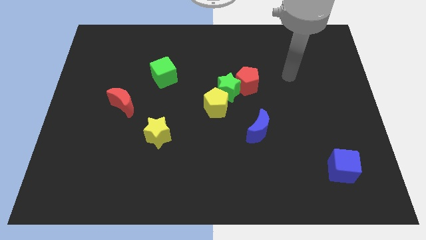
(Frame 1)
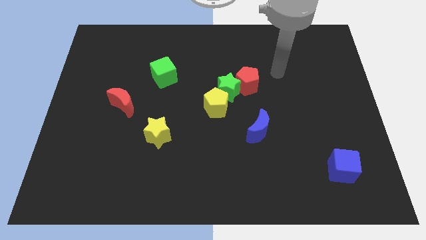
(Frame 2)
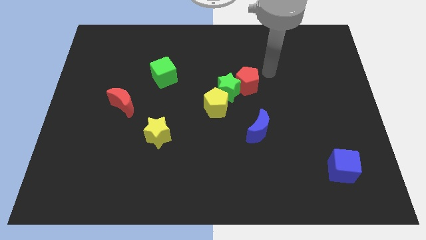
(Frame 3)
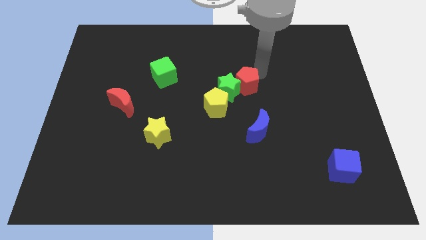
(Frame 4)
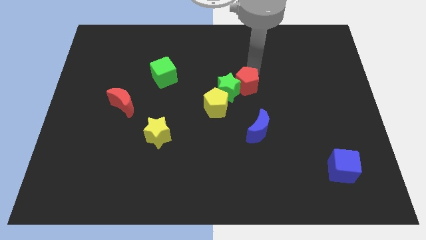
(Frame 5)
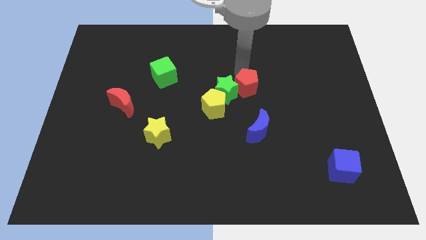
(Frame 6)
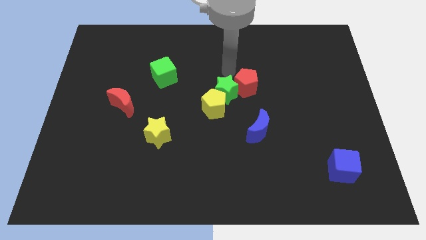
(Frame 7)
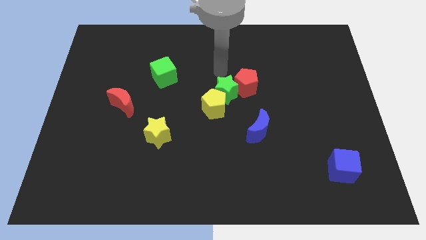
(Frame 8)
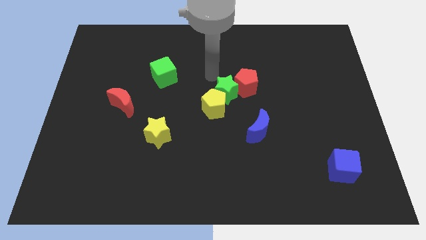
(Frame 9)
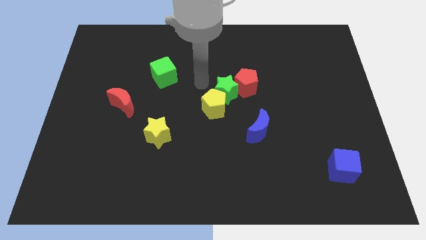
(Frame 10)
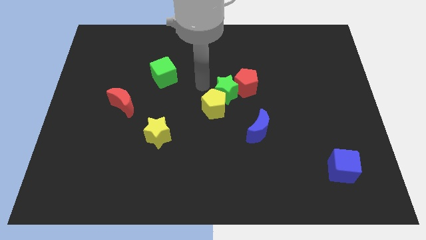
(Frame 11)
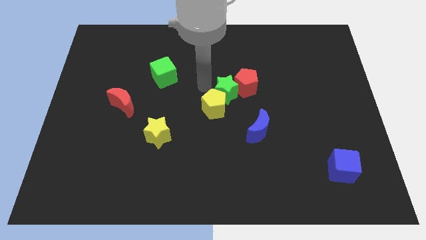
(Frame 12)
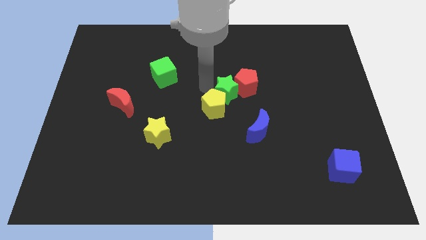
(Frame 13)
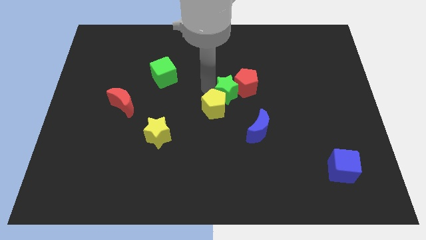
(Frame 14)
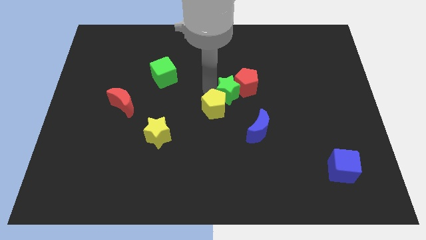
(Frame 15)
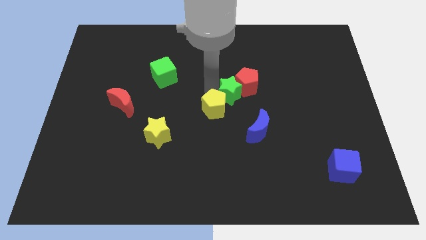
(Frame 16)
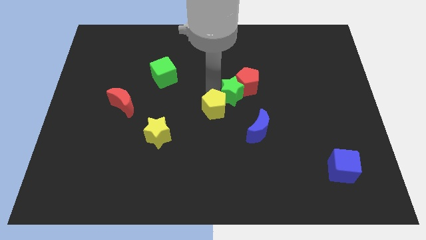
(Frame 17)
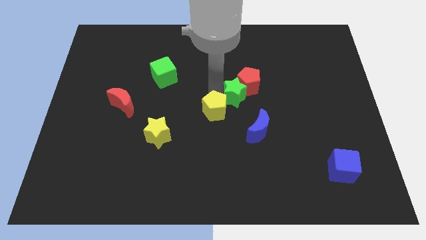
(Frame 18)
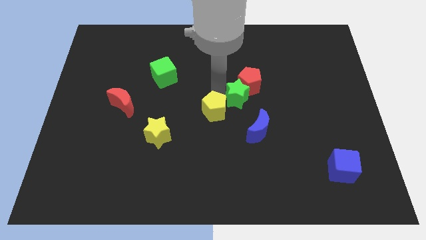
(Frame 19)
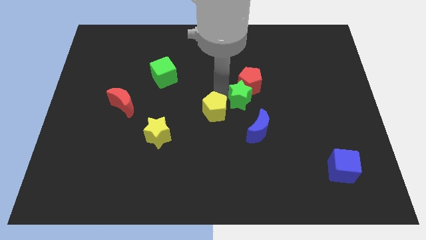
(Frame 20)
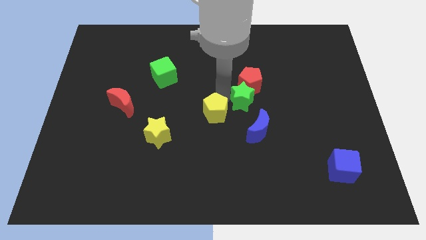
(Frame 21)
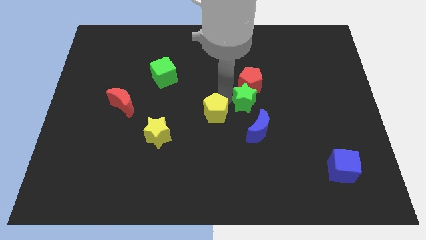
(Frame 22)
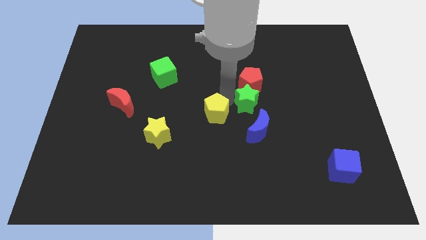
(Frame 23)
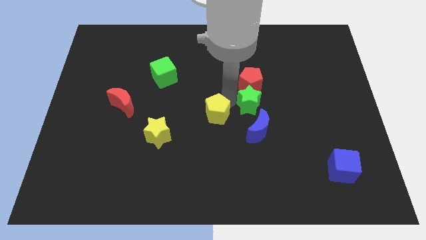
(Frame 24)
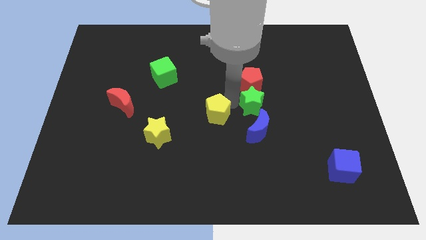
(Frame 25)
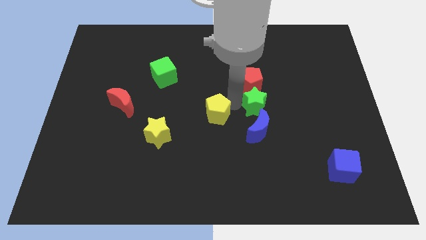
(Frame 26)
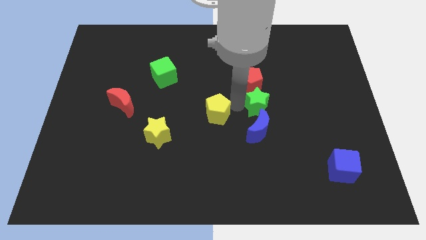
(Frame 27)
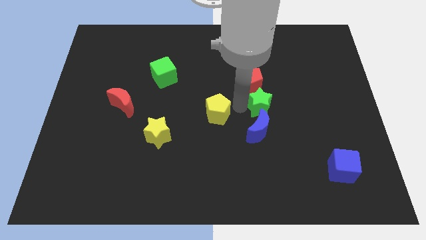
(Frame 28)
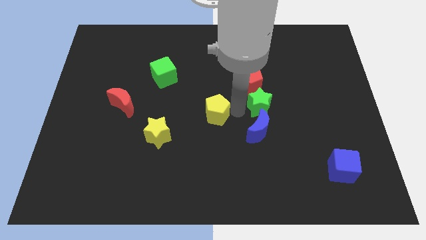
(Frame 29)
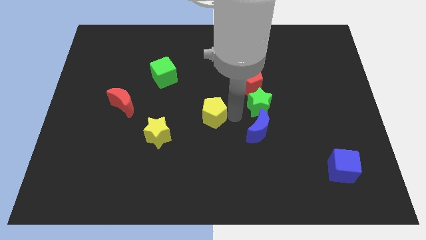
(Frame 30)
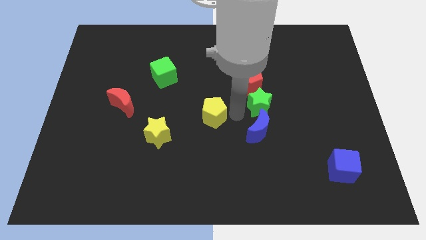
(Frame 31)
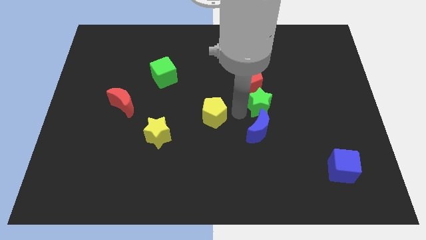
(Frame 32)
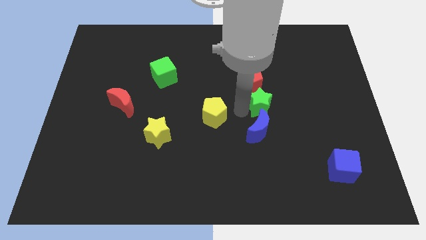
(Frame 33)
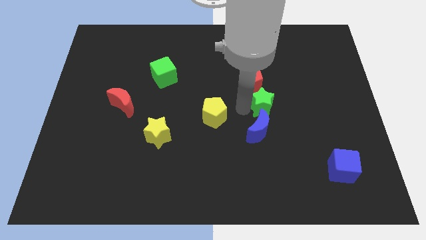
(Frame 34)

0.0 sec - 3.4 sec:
move the green star a little bit right

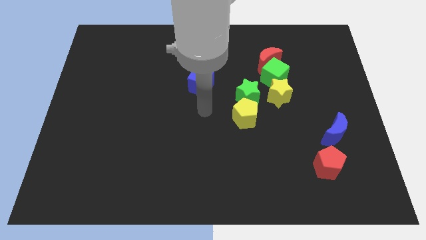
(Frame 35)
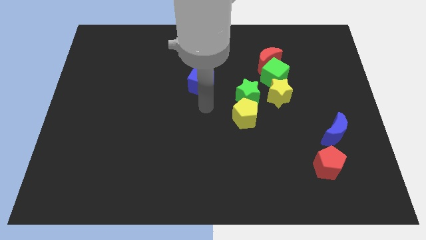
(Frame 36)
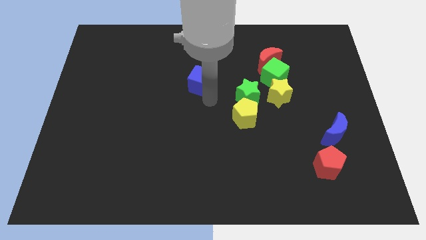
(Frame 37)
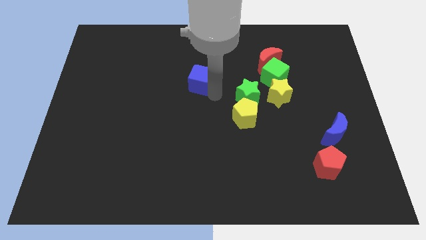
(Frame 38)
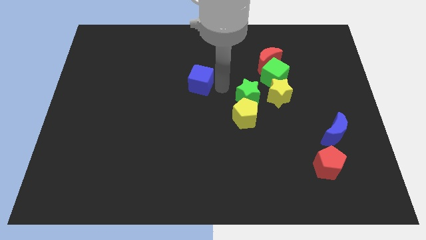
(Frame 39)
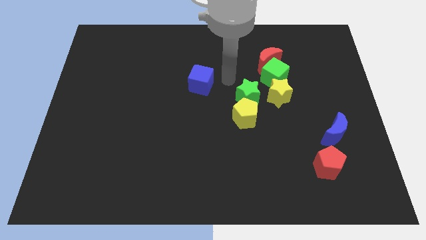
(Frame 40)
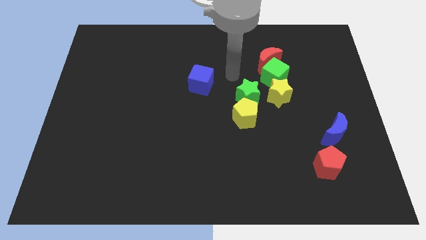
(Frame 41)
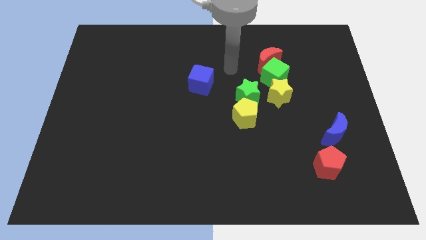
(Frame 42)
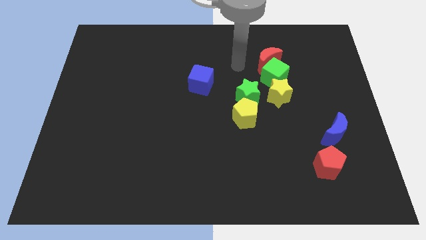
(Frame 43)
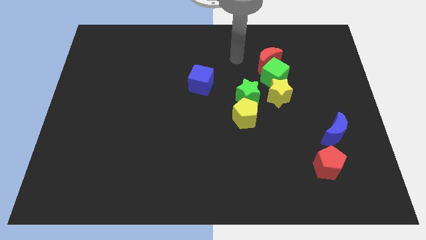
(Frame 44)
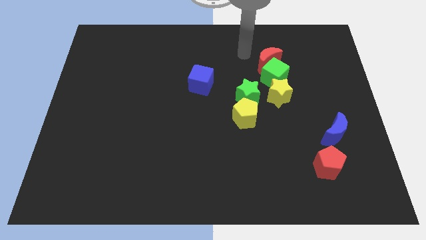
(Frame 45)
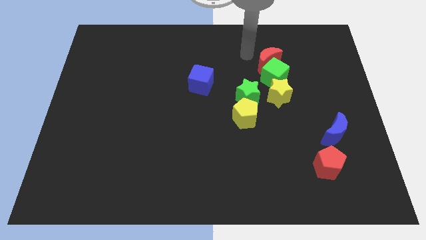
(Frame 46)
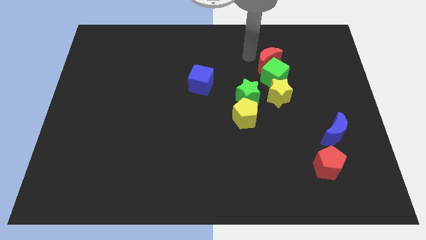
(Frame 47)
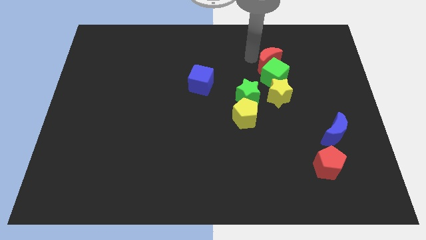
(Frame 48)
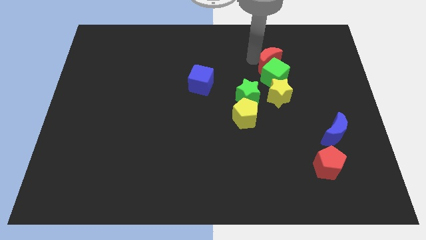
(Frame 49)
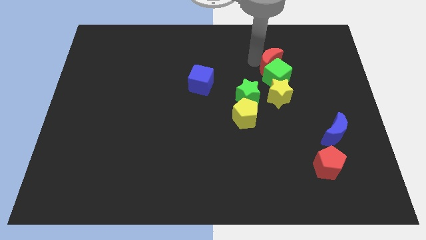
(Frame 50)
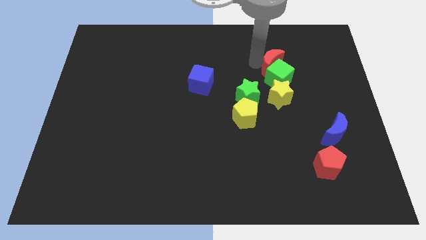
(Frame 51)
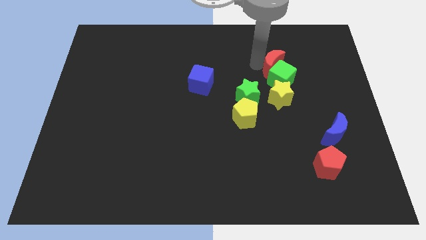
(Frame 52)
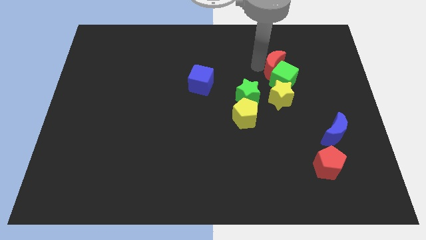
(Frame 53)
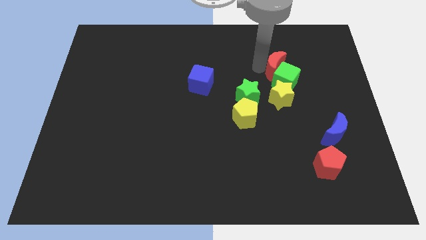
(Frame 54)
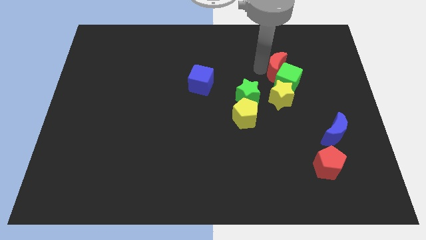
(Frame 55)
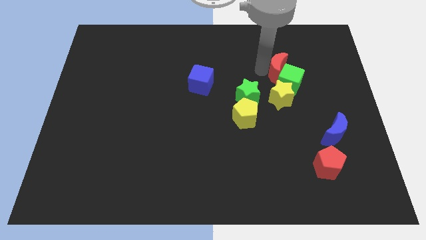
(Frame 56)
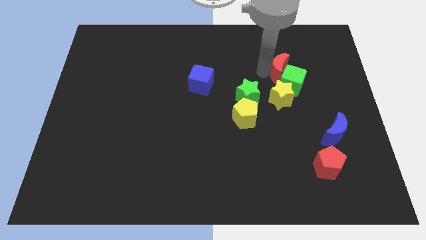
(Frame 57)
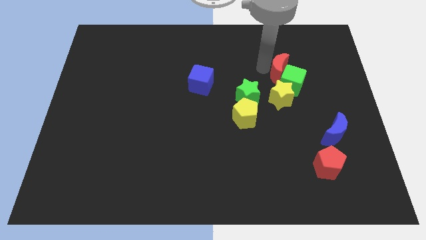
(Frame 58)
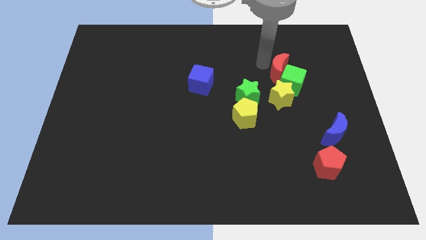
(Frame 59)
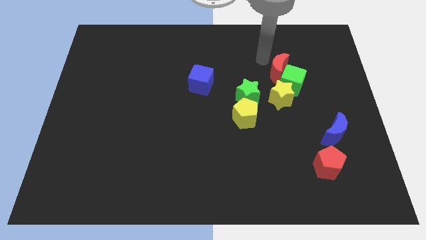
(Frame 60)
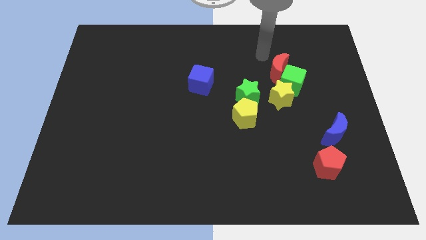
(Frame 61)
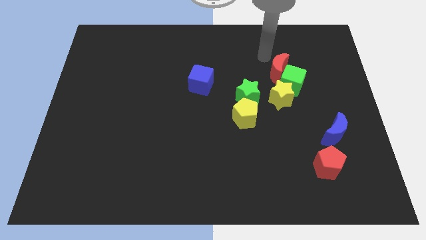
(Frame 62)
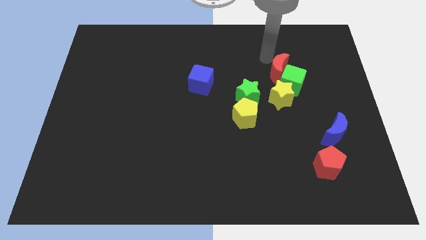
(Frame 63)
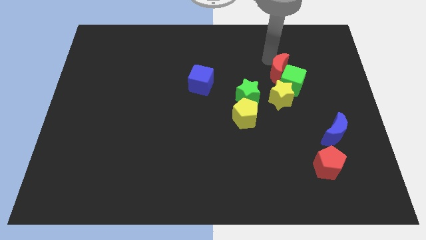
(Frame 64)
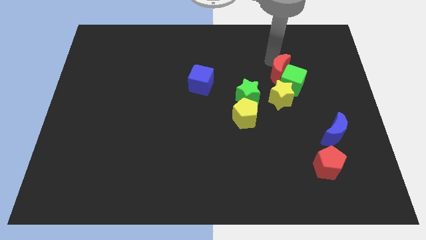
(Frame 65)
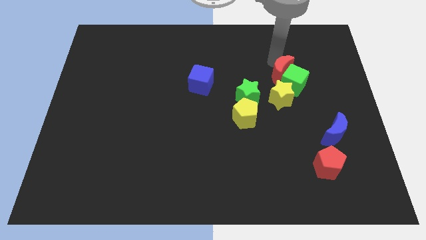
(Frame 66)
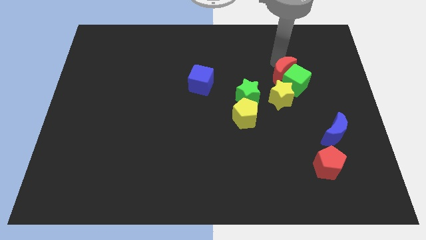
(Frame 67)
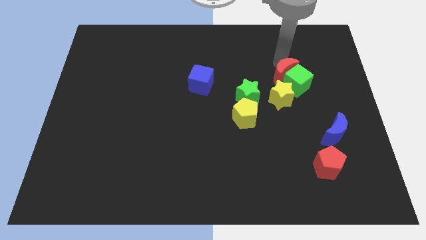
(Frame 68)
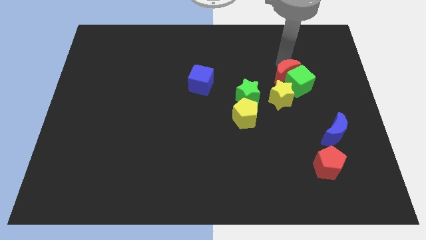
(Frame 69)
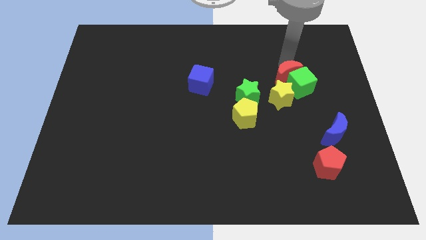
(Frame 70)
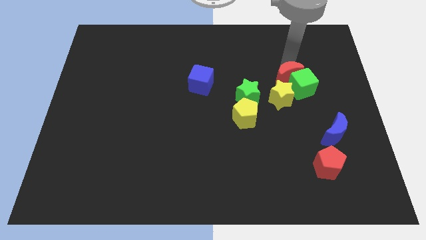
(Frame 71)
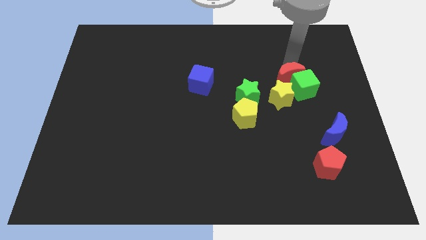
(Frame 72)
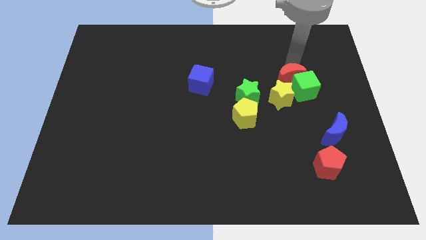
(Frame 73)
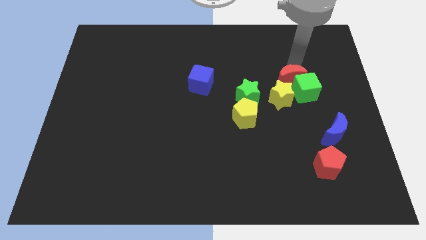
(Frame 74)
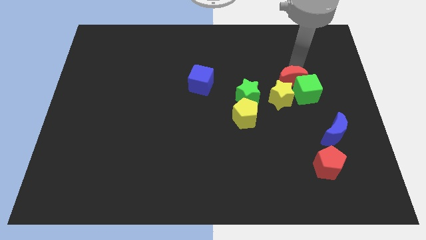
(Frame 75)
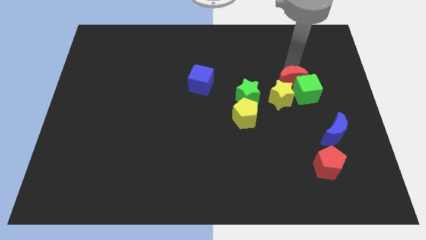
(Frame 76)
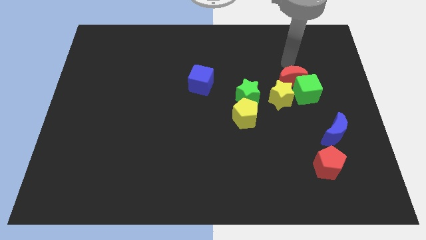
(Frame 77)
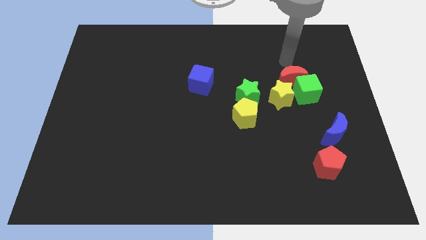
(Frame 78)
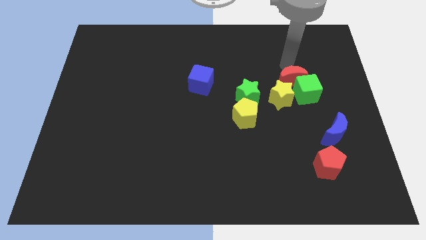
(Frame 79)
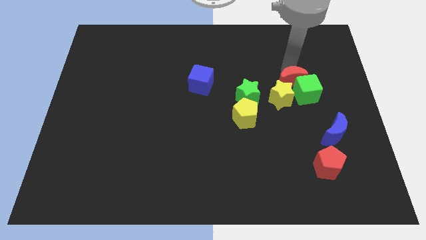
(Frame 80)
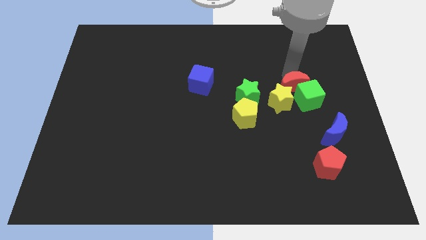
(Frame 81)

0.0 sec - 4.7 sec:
slightly slide the red moon down
